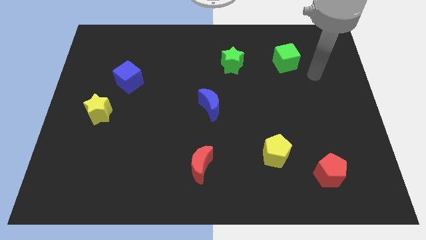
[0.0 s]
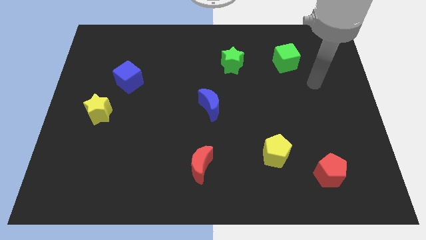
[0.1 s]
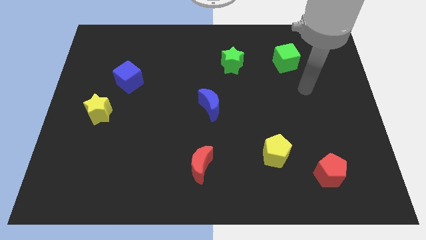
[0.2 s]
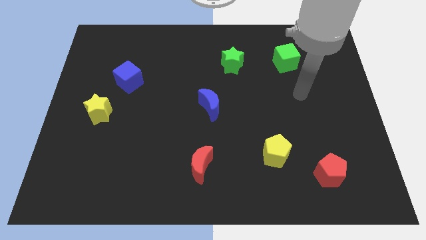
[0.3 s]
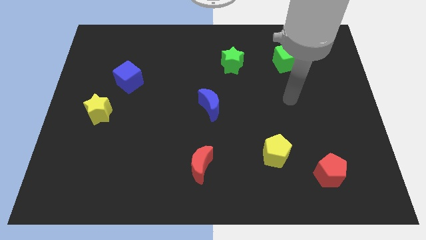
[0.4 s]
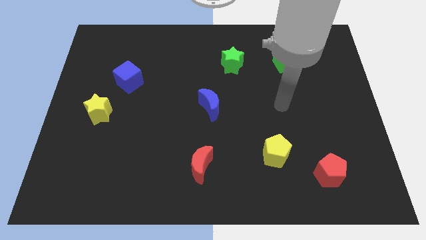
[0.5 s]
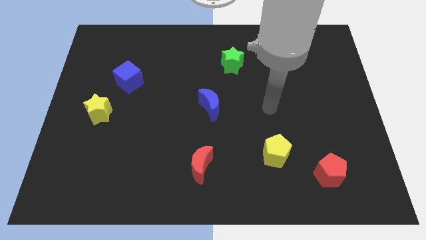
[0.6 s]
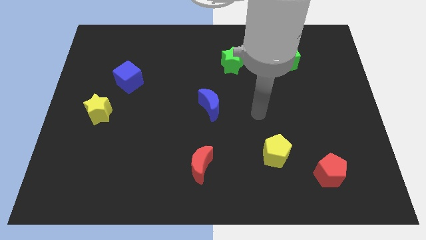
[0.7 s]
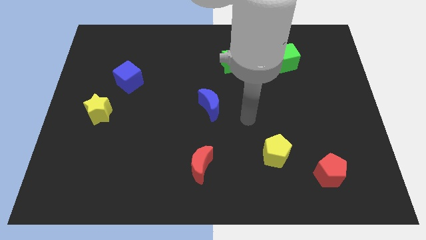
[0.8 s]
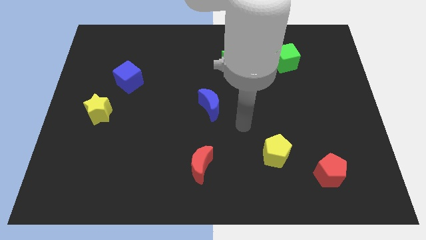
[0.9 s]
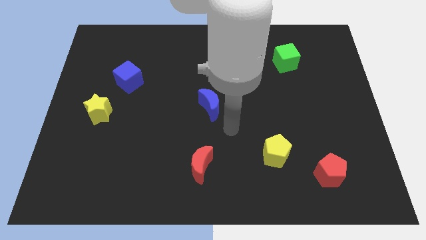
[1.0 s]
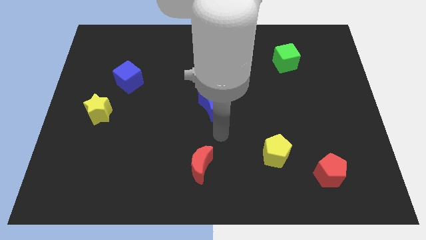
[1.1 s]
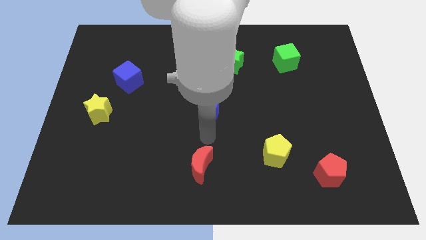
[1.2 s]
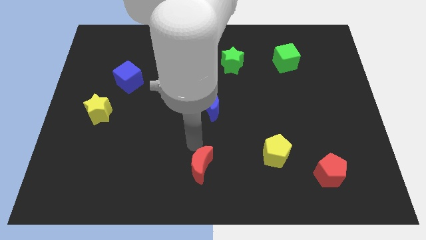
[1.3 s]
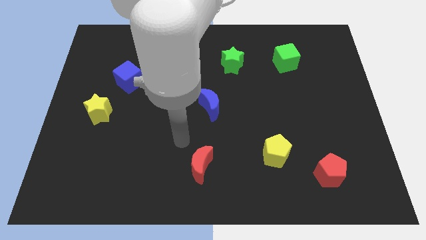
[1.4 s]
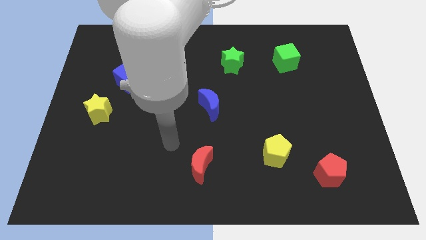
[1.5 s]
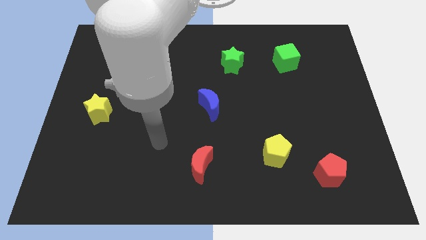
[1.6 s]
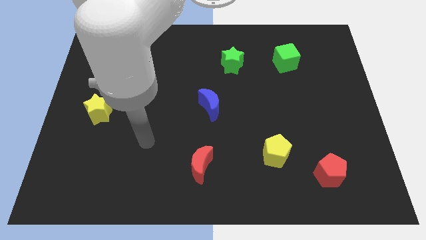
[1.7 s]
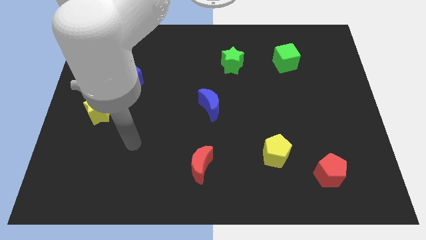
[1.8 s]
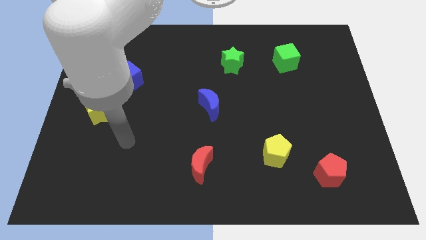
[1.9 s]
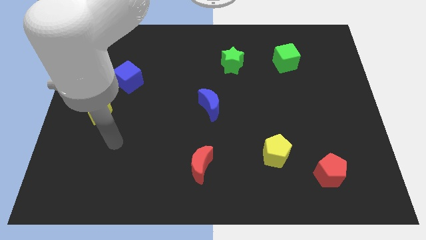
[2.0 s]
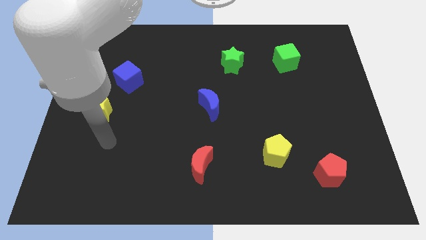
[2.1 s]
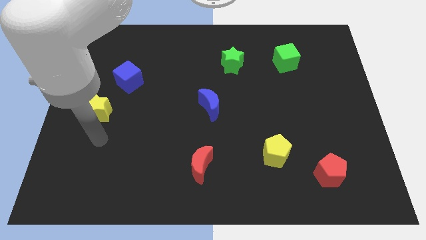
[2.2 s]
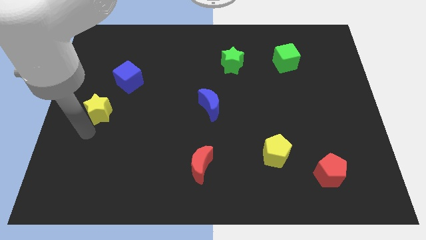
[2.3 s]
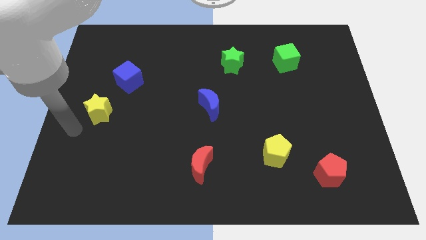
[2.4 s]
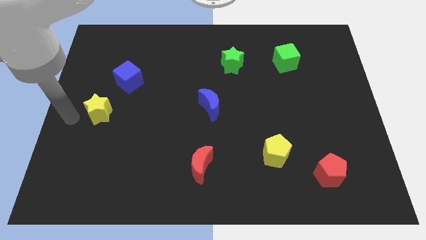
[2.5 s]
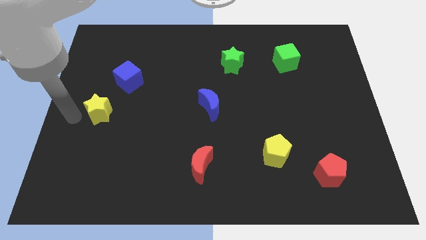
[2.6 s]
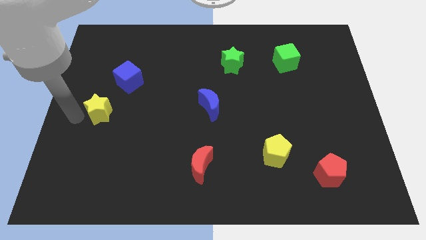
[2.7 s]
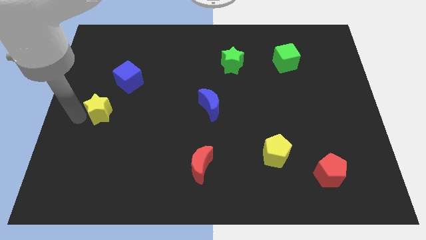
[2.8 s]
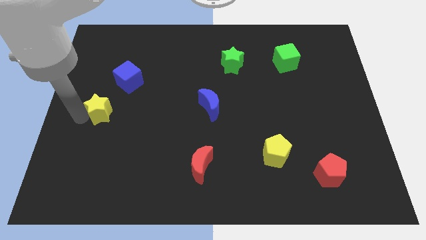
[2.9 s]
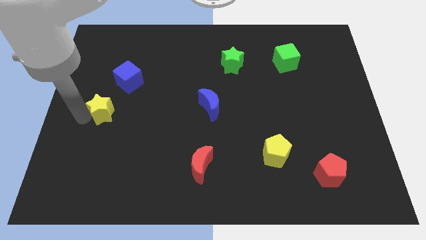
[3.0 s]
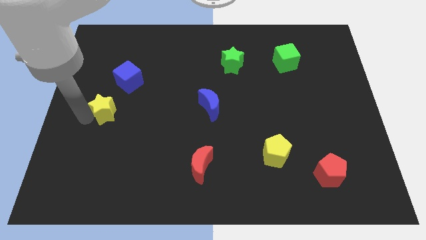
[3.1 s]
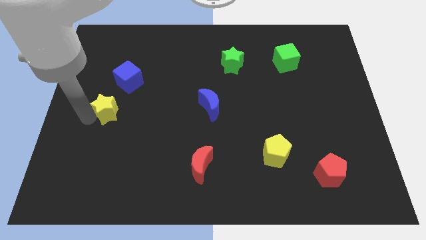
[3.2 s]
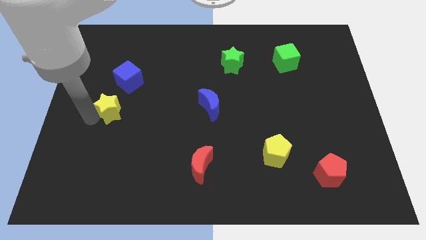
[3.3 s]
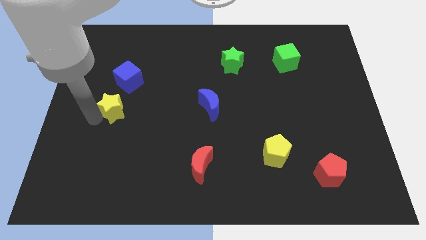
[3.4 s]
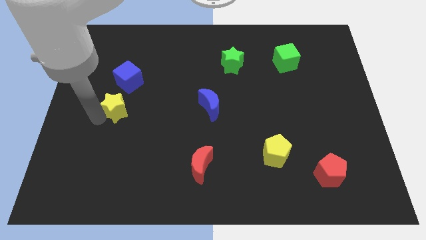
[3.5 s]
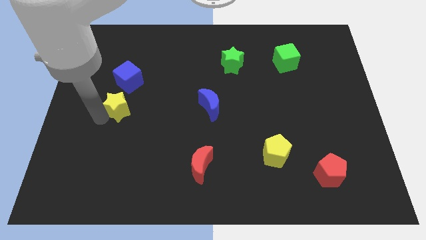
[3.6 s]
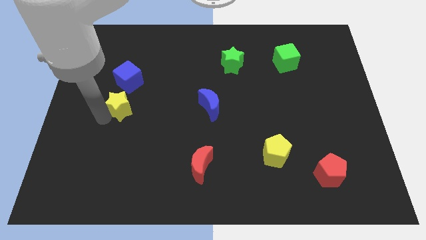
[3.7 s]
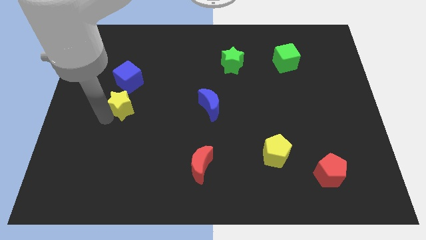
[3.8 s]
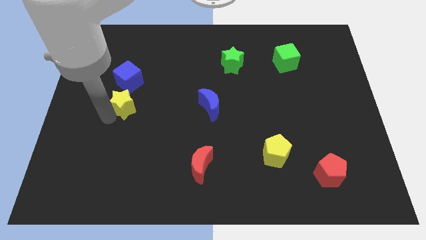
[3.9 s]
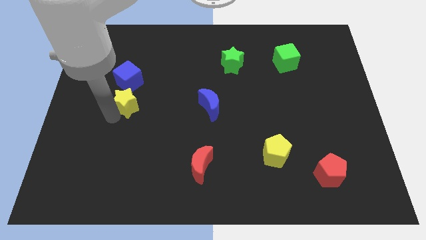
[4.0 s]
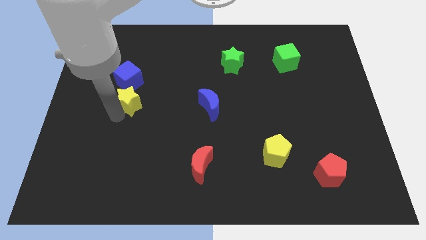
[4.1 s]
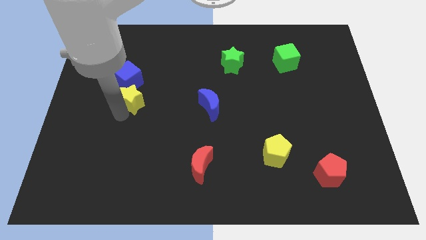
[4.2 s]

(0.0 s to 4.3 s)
slightly push the yellow star upwards and then right

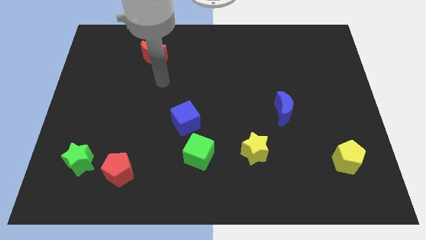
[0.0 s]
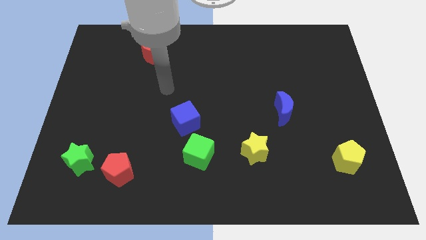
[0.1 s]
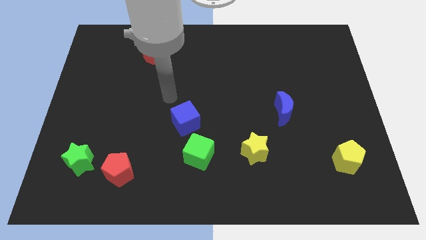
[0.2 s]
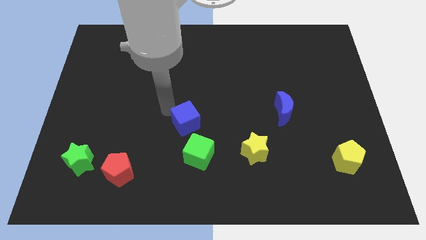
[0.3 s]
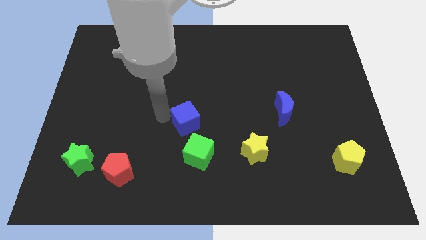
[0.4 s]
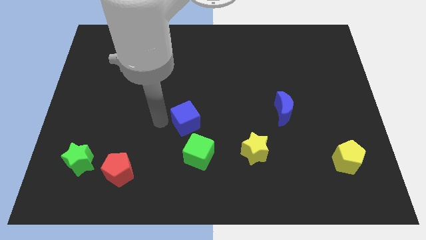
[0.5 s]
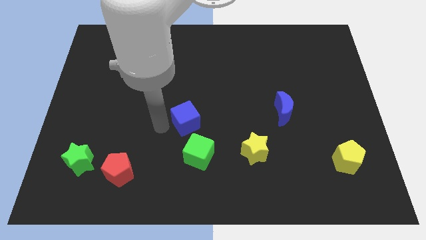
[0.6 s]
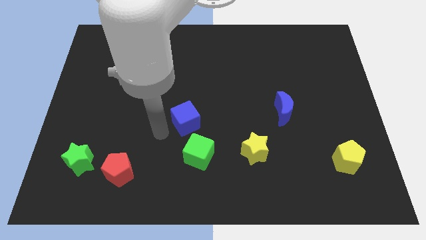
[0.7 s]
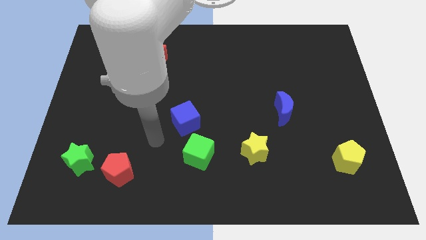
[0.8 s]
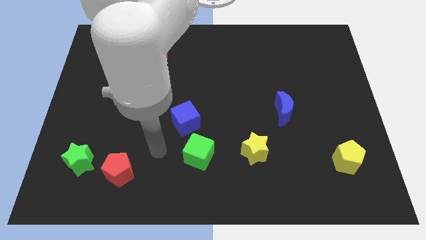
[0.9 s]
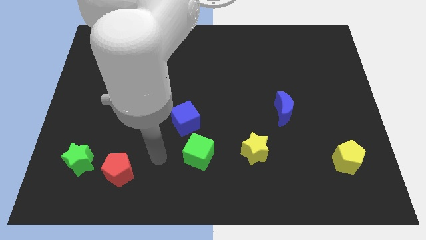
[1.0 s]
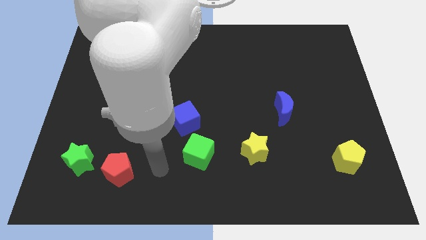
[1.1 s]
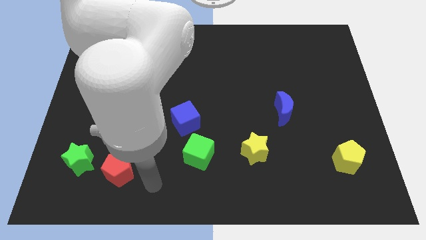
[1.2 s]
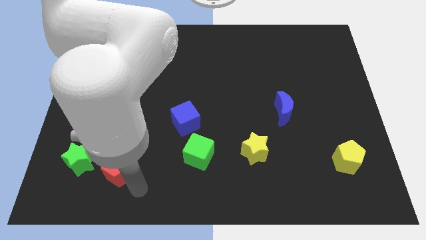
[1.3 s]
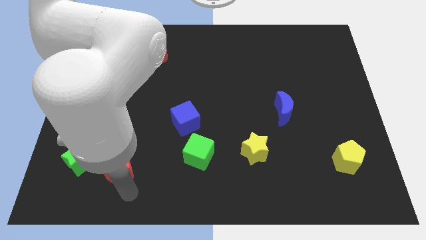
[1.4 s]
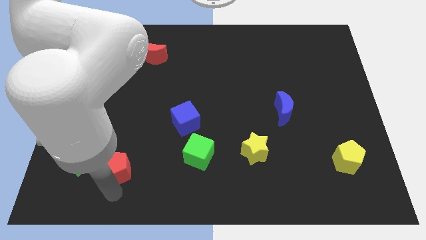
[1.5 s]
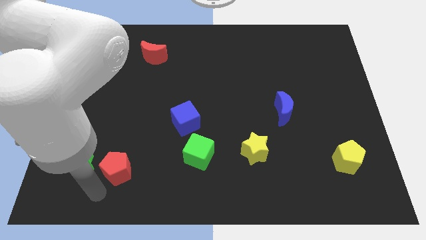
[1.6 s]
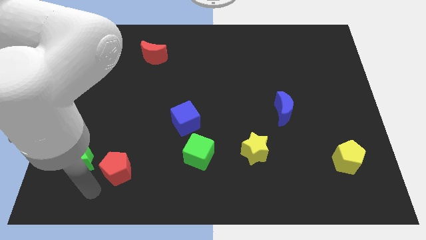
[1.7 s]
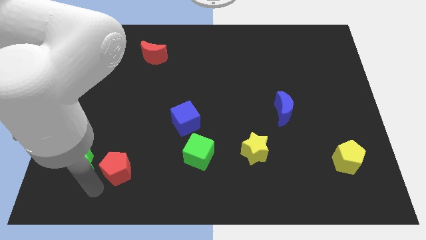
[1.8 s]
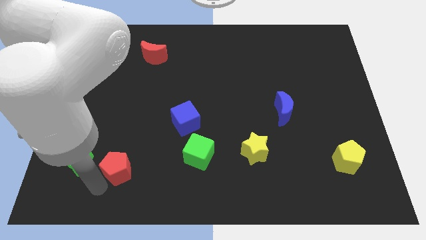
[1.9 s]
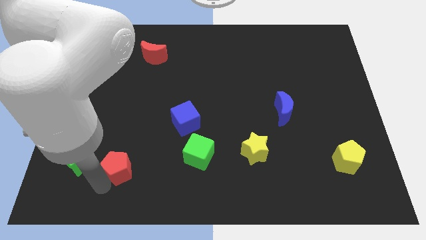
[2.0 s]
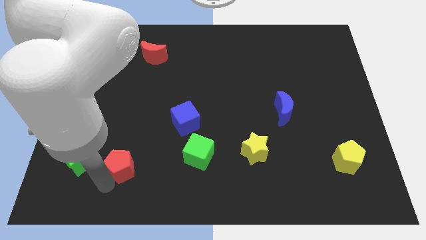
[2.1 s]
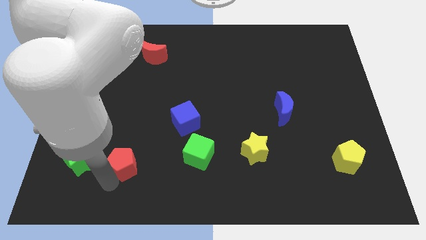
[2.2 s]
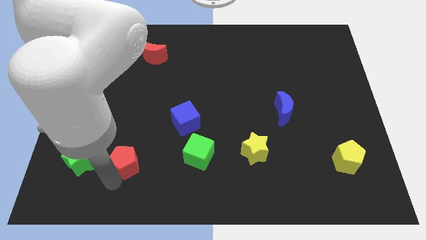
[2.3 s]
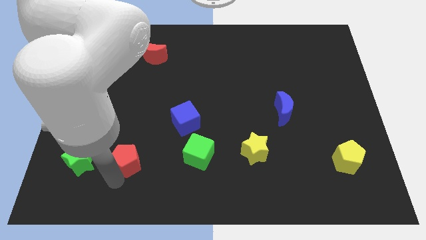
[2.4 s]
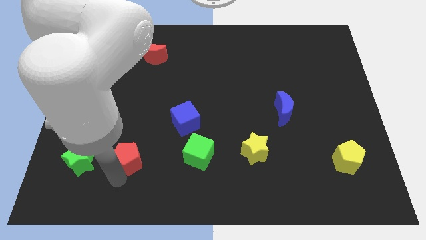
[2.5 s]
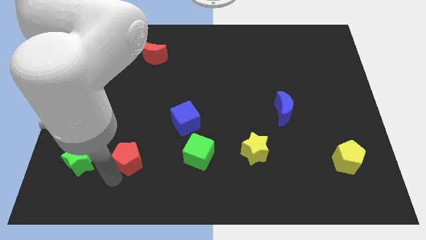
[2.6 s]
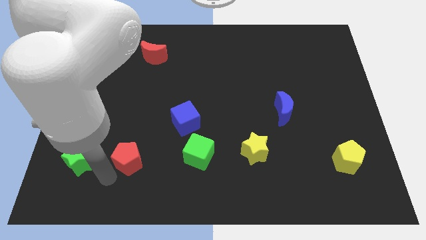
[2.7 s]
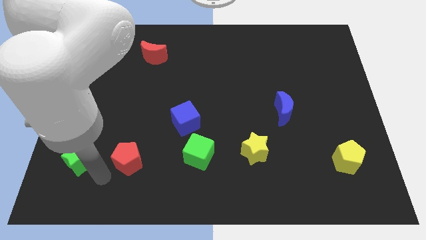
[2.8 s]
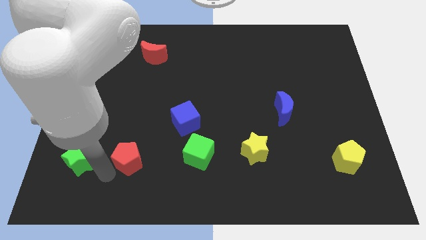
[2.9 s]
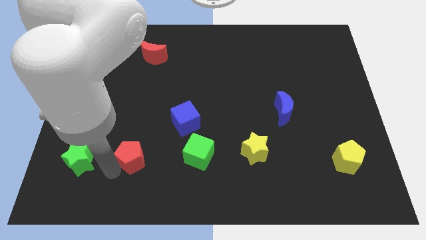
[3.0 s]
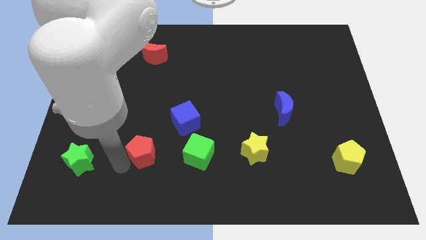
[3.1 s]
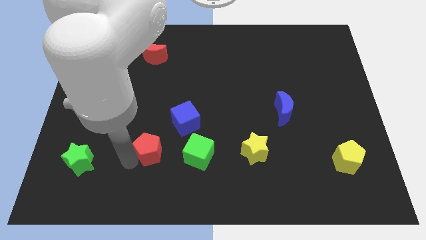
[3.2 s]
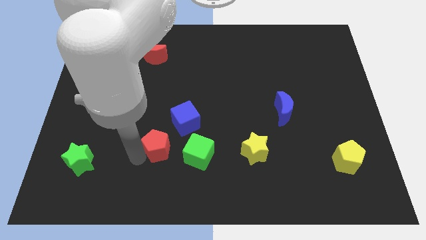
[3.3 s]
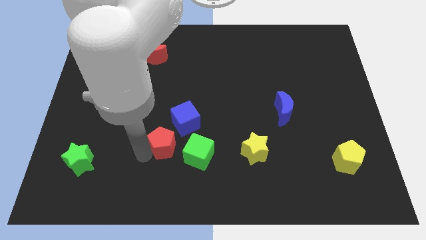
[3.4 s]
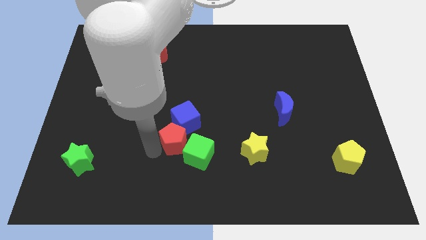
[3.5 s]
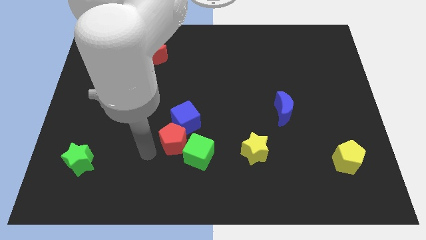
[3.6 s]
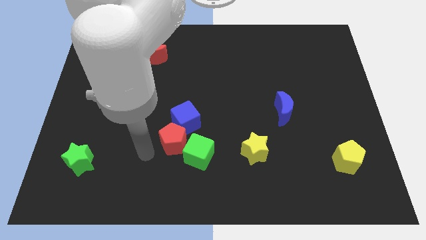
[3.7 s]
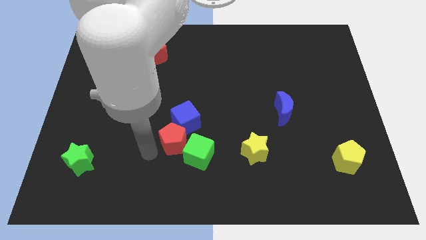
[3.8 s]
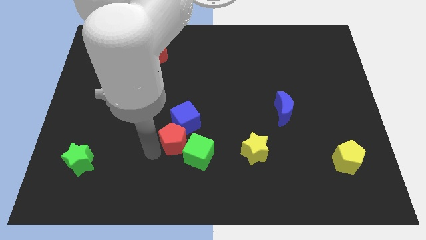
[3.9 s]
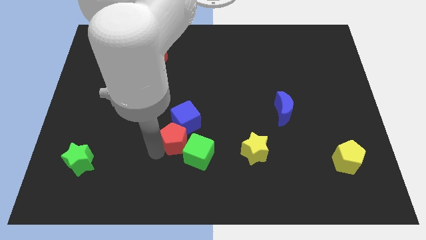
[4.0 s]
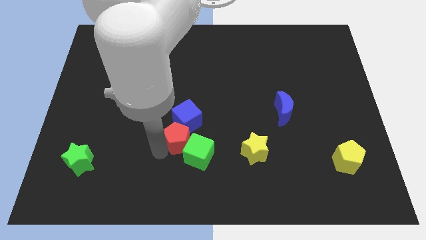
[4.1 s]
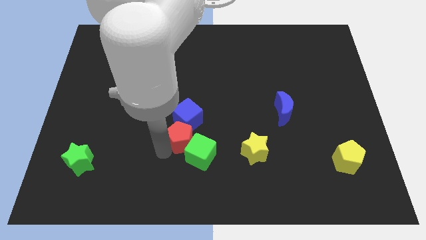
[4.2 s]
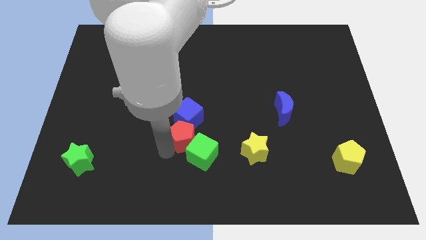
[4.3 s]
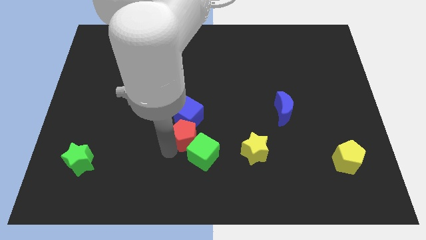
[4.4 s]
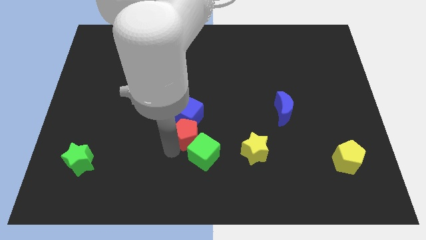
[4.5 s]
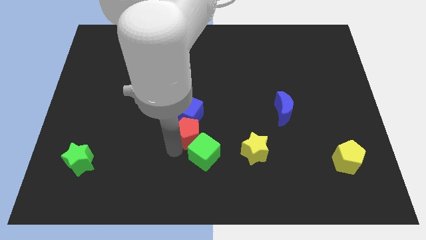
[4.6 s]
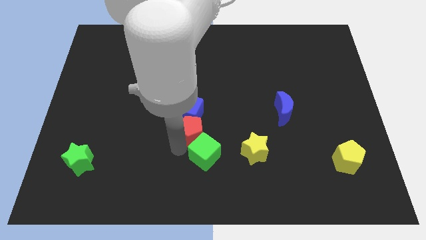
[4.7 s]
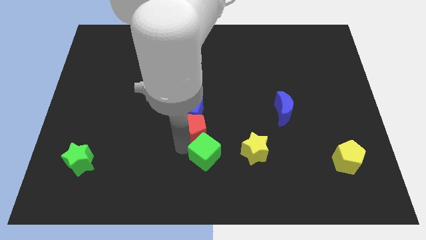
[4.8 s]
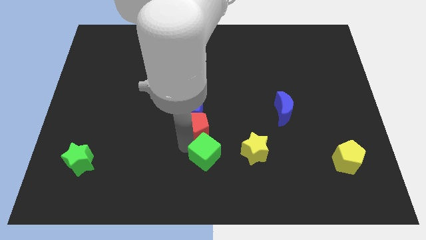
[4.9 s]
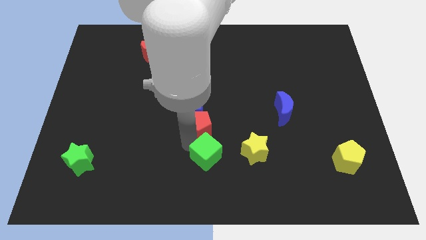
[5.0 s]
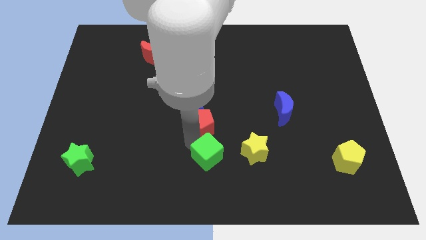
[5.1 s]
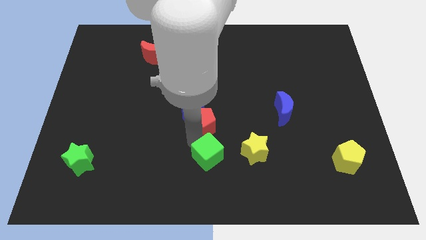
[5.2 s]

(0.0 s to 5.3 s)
move the red pentagon up and right diagonally
